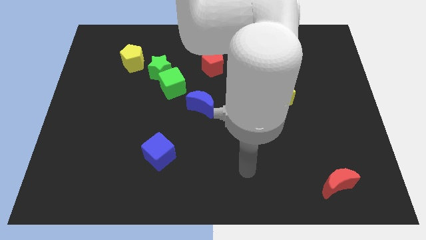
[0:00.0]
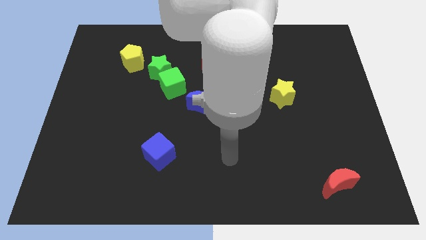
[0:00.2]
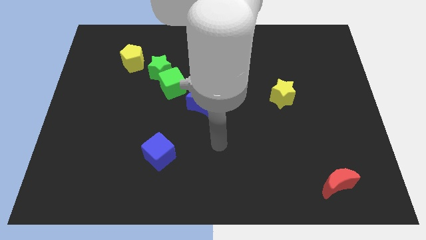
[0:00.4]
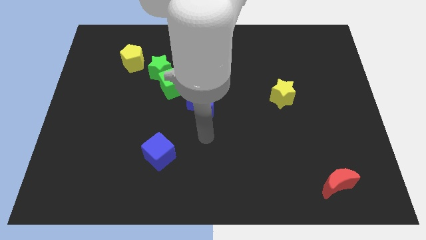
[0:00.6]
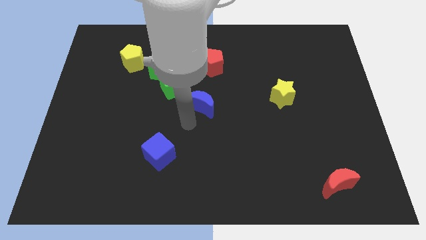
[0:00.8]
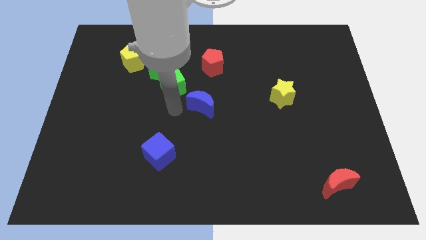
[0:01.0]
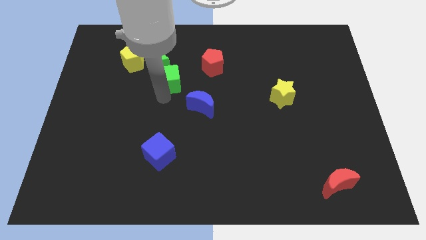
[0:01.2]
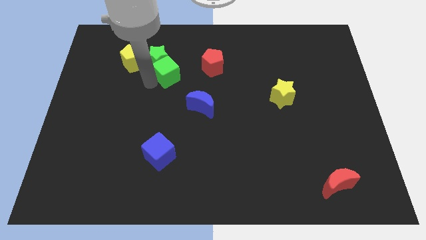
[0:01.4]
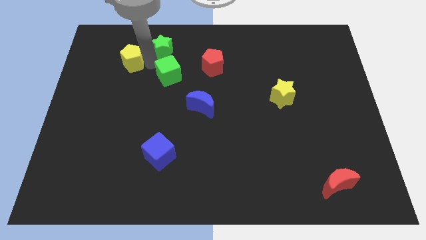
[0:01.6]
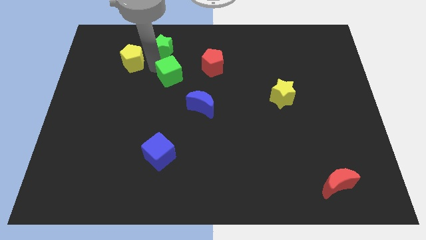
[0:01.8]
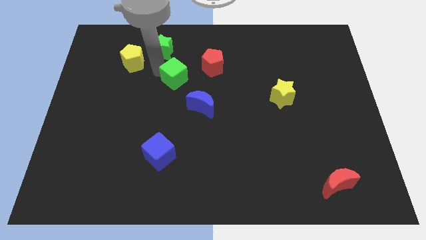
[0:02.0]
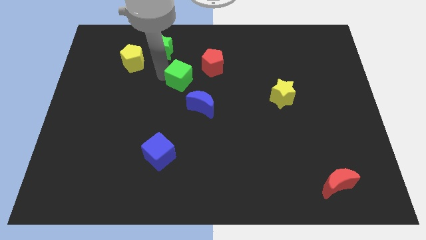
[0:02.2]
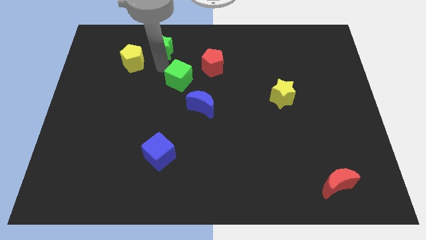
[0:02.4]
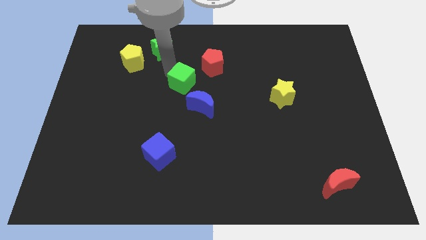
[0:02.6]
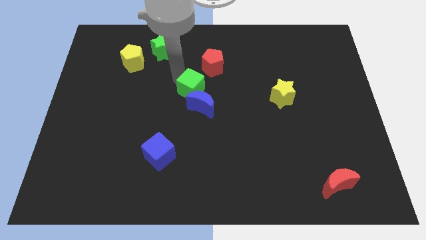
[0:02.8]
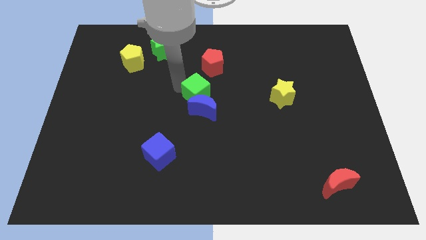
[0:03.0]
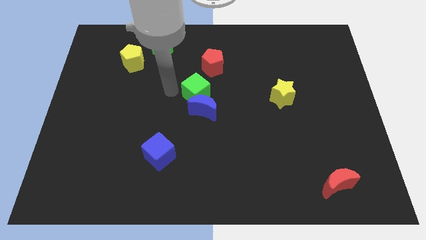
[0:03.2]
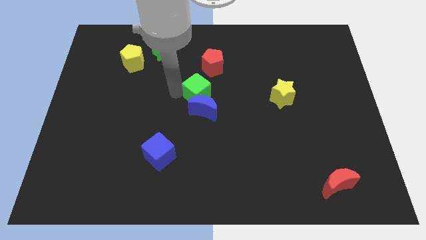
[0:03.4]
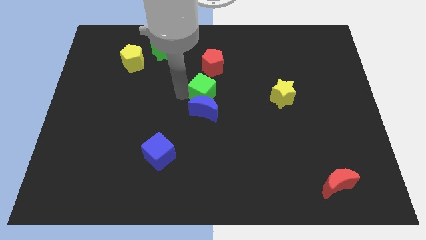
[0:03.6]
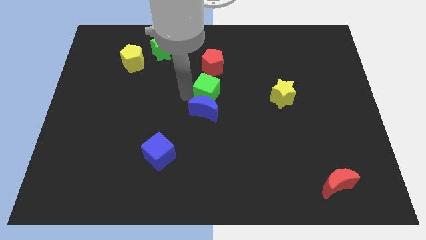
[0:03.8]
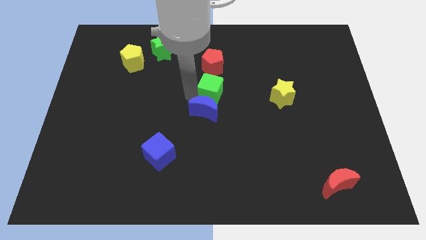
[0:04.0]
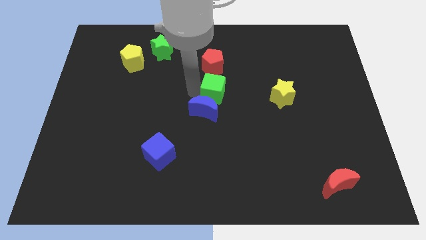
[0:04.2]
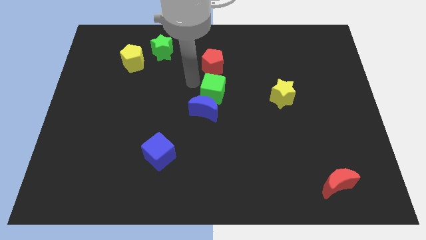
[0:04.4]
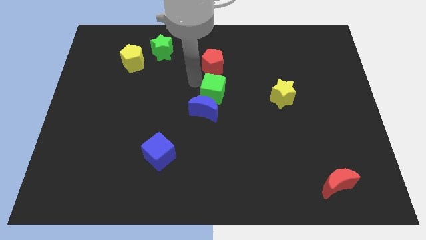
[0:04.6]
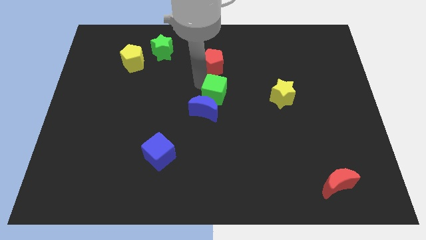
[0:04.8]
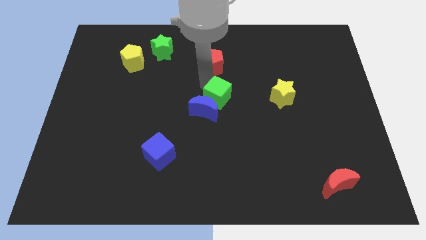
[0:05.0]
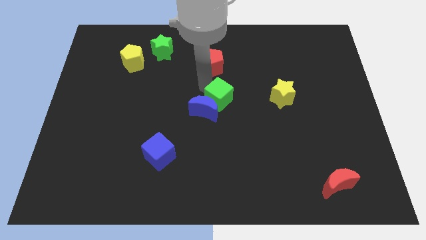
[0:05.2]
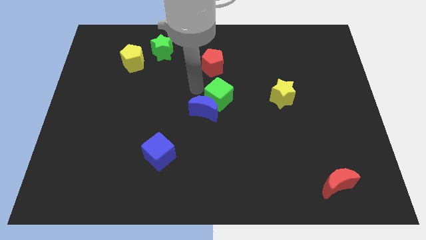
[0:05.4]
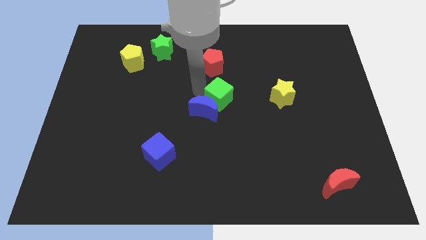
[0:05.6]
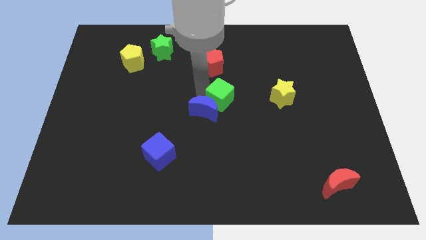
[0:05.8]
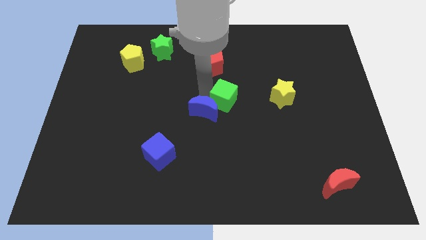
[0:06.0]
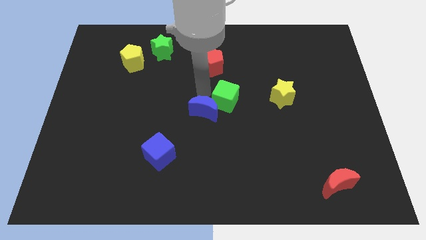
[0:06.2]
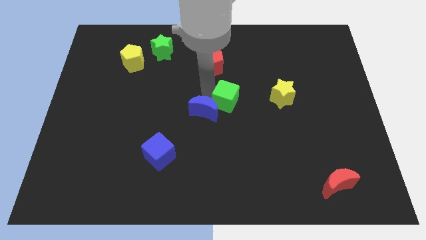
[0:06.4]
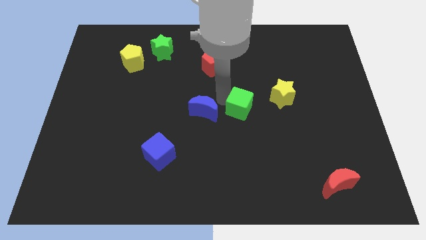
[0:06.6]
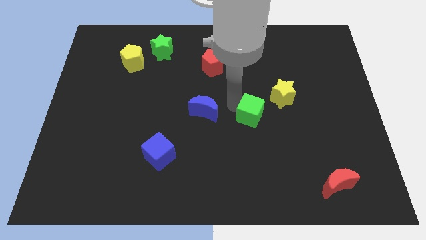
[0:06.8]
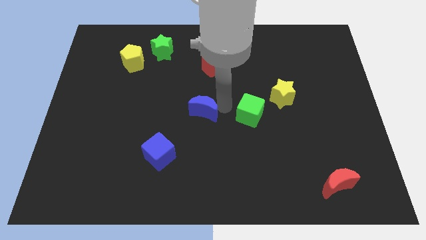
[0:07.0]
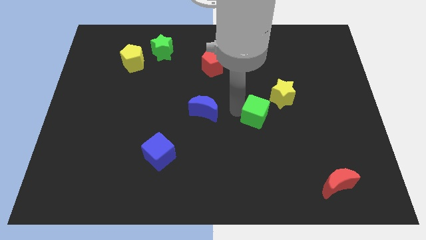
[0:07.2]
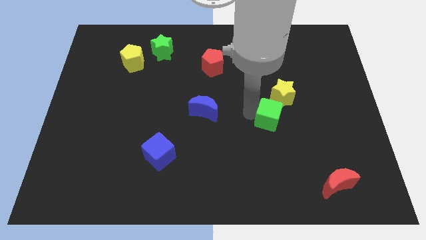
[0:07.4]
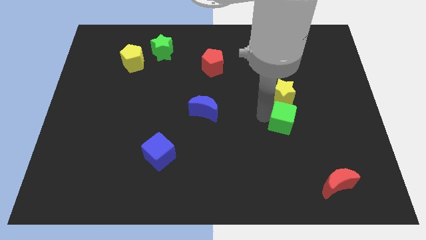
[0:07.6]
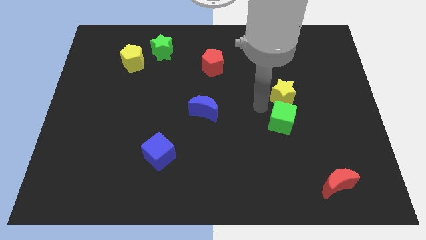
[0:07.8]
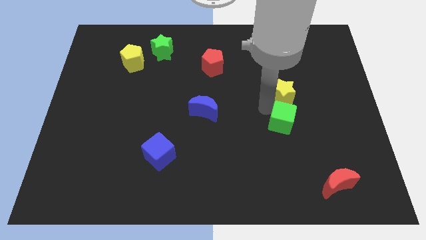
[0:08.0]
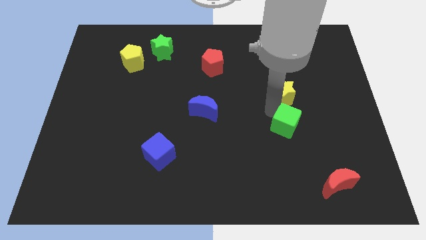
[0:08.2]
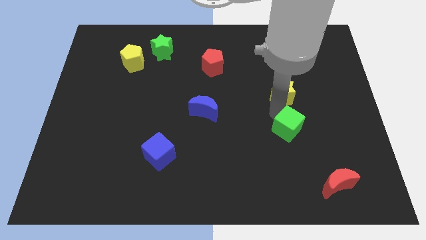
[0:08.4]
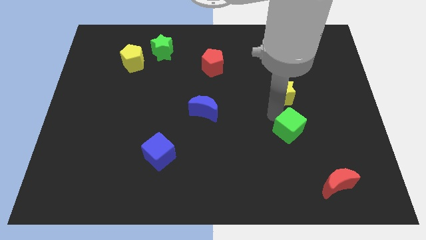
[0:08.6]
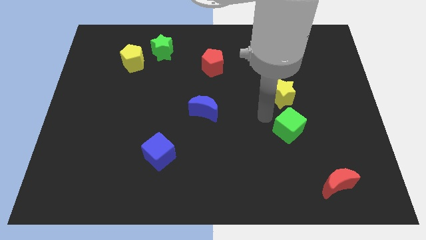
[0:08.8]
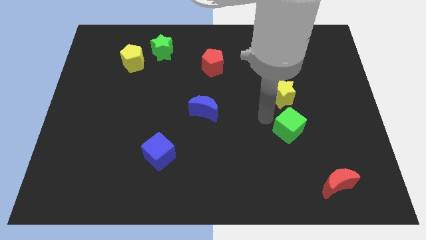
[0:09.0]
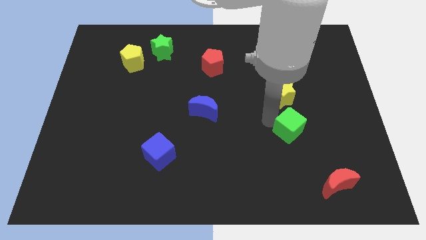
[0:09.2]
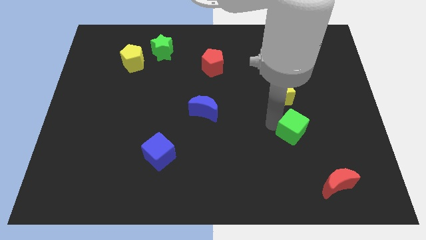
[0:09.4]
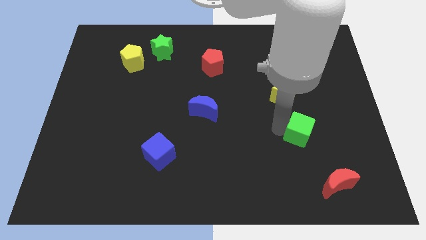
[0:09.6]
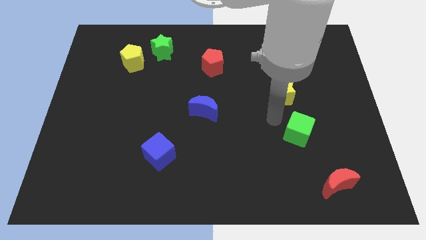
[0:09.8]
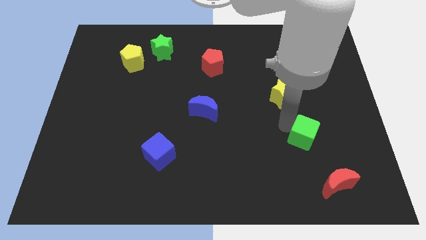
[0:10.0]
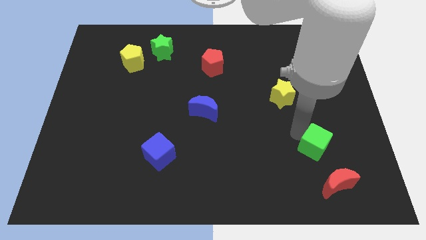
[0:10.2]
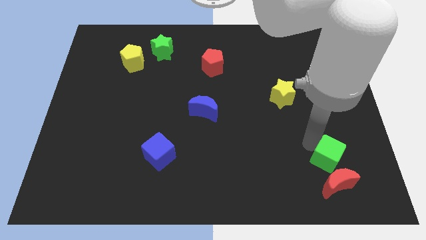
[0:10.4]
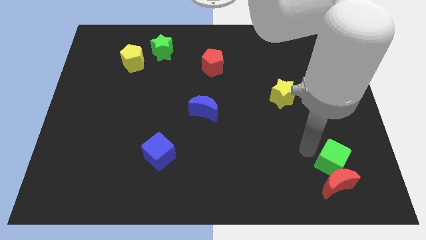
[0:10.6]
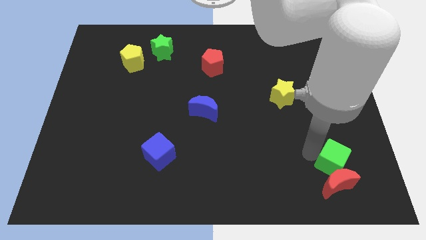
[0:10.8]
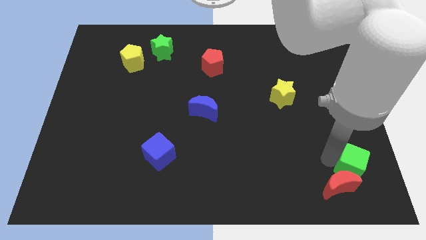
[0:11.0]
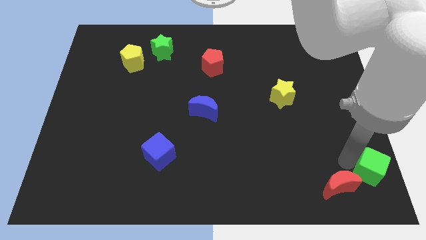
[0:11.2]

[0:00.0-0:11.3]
slide the green cube to the bottom right corner

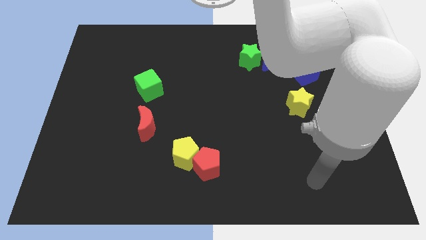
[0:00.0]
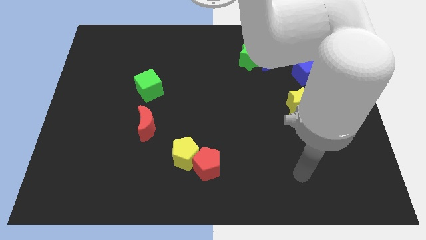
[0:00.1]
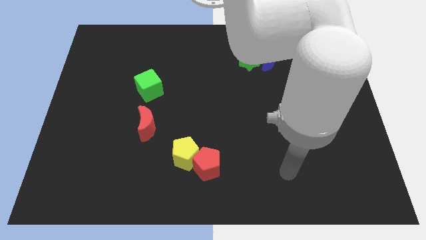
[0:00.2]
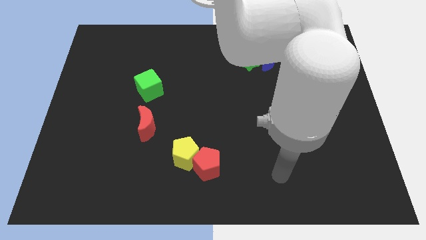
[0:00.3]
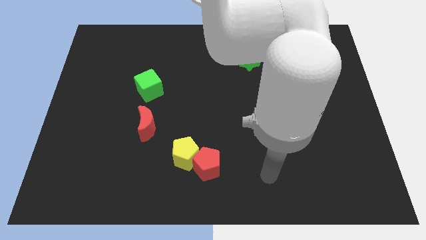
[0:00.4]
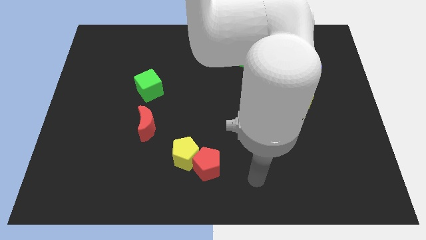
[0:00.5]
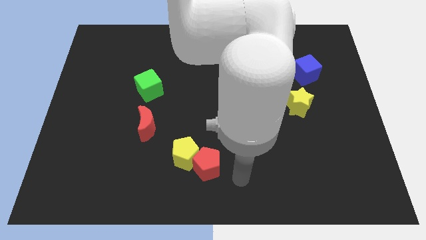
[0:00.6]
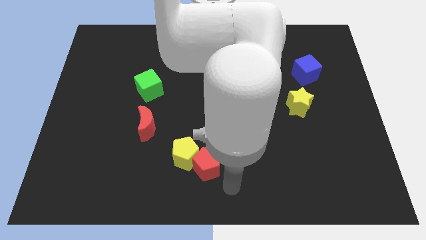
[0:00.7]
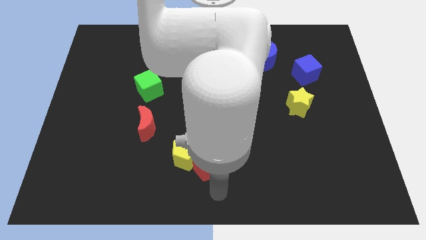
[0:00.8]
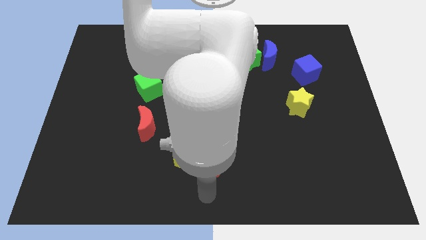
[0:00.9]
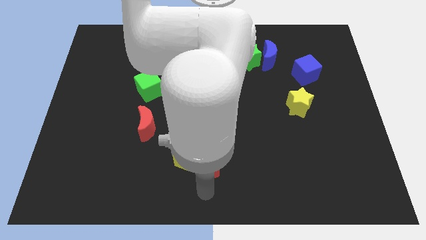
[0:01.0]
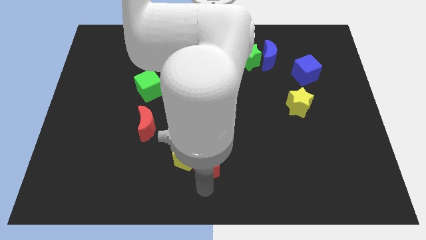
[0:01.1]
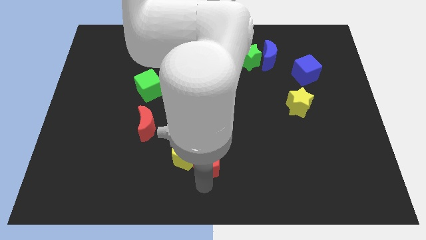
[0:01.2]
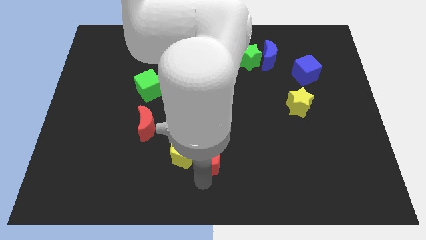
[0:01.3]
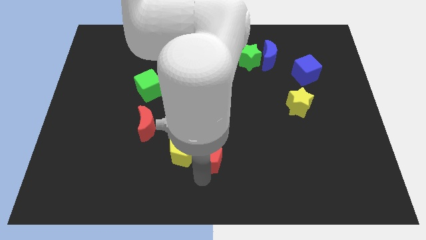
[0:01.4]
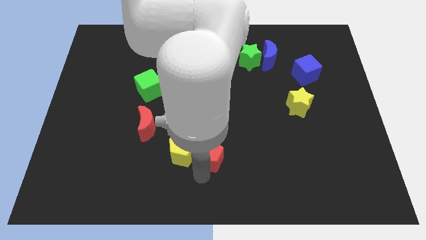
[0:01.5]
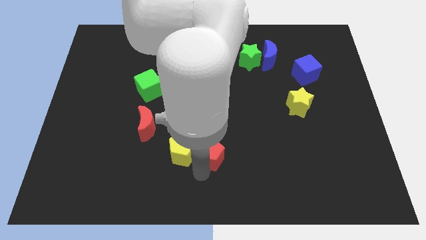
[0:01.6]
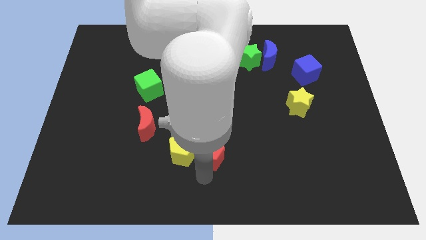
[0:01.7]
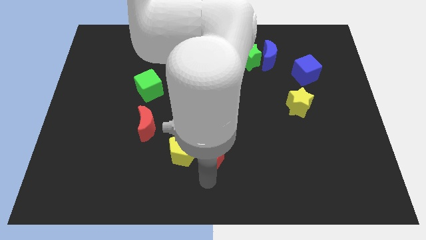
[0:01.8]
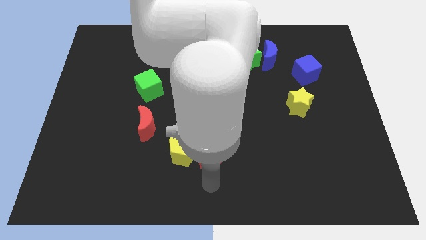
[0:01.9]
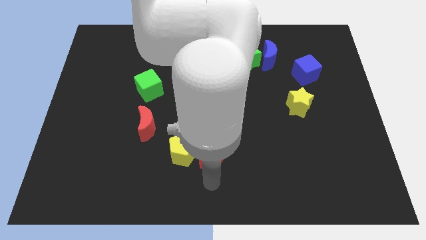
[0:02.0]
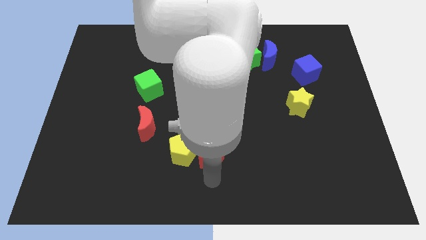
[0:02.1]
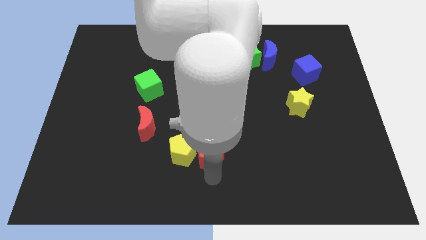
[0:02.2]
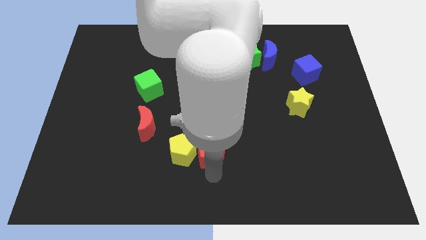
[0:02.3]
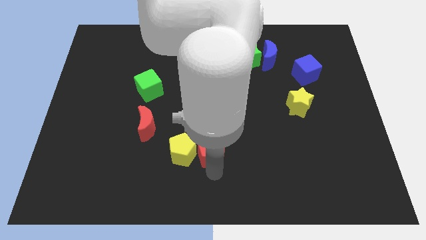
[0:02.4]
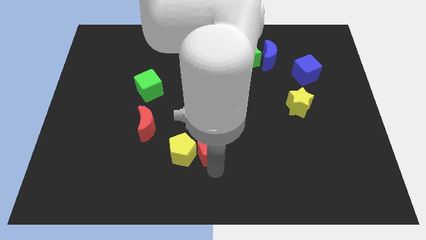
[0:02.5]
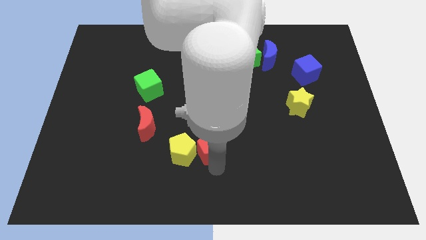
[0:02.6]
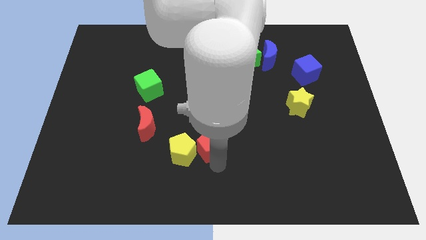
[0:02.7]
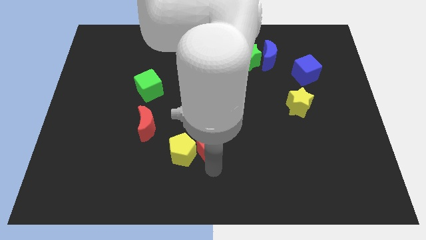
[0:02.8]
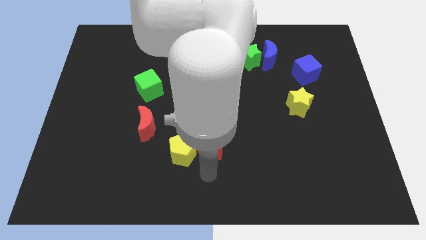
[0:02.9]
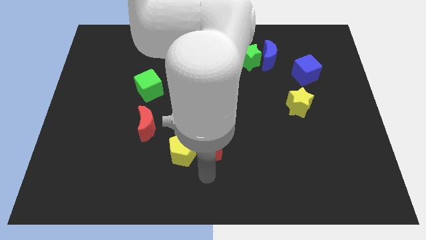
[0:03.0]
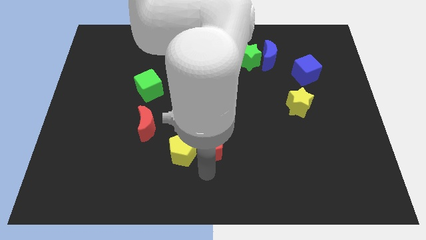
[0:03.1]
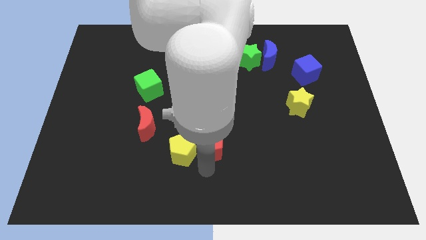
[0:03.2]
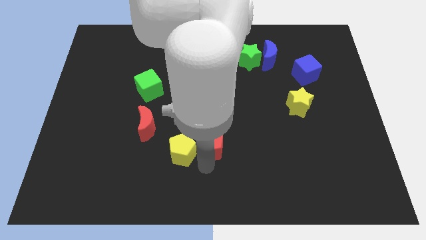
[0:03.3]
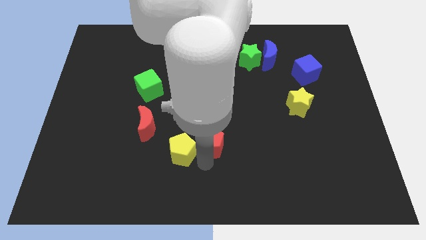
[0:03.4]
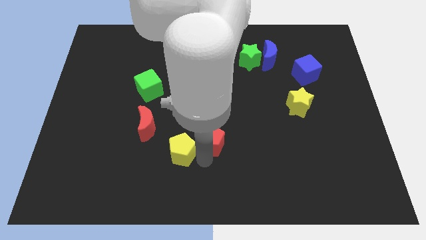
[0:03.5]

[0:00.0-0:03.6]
slide the red pentagon to the middle of the board
